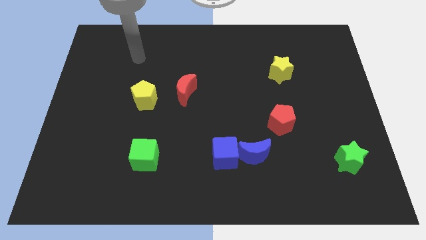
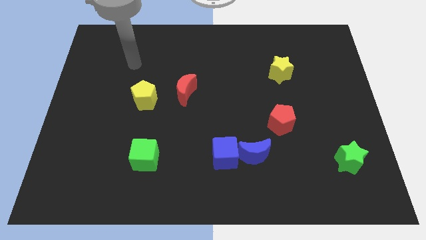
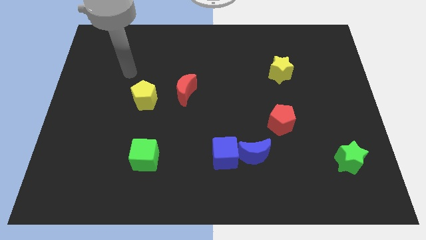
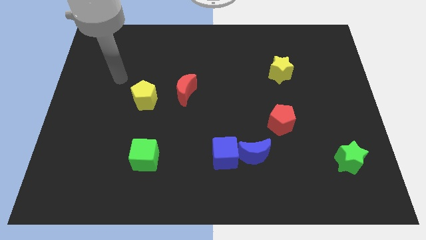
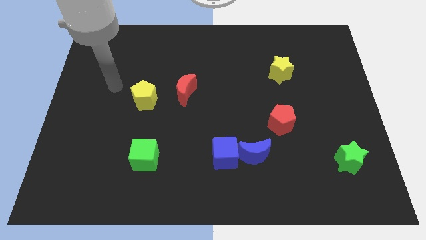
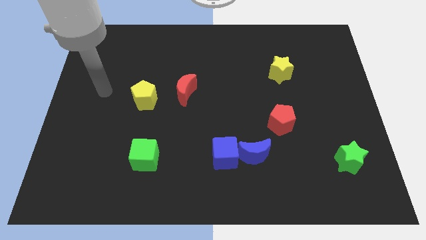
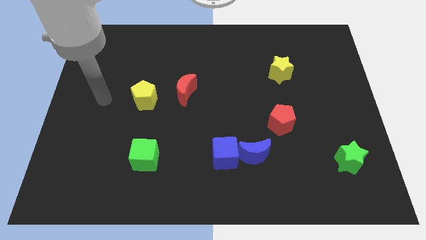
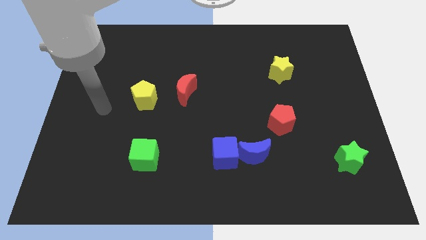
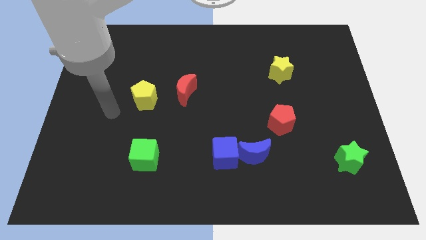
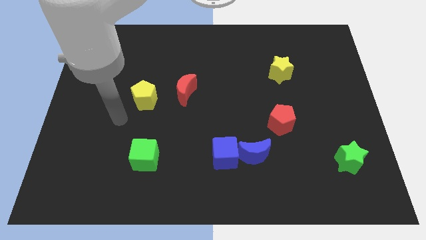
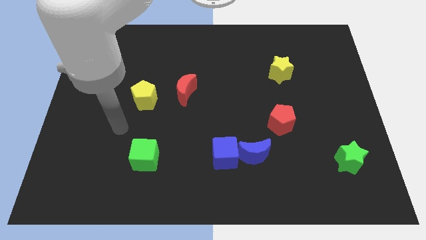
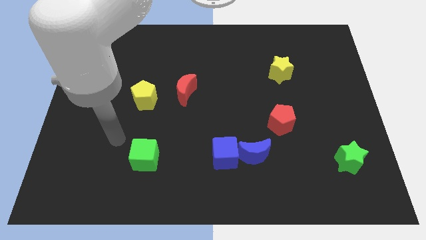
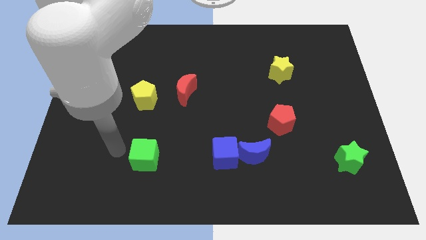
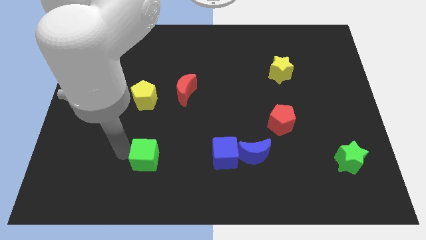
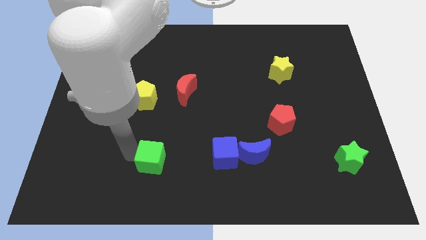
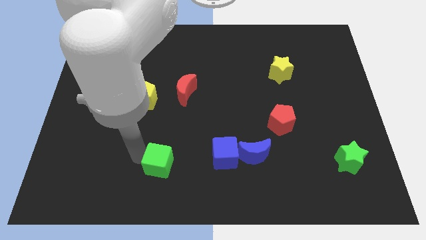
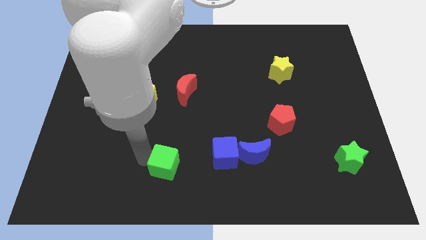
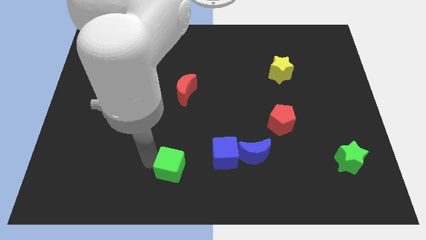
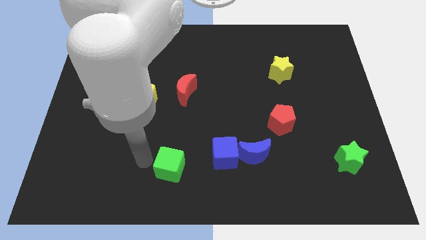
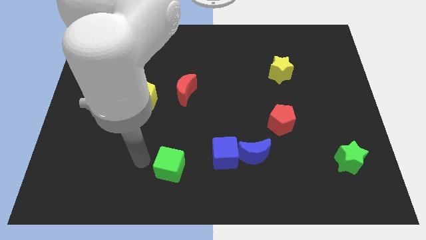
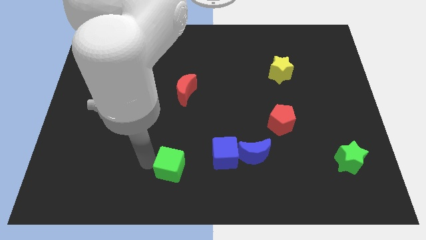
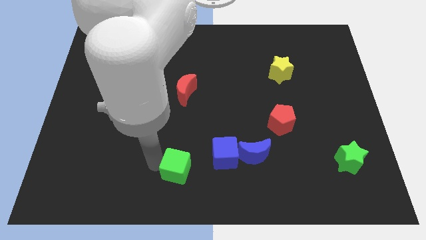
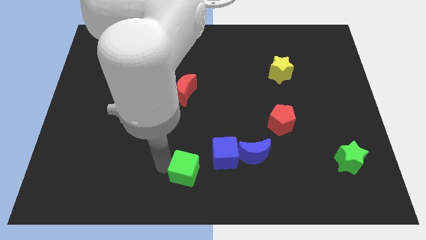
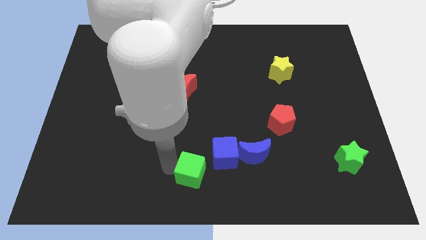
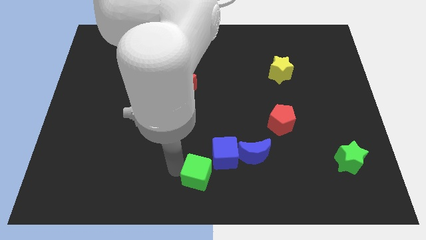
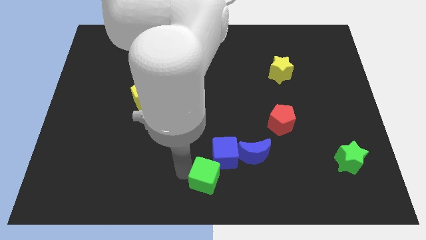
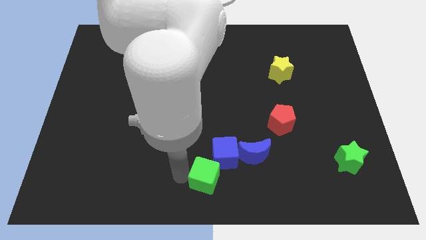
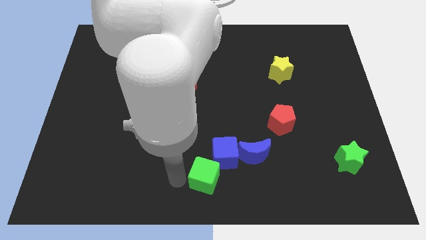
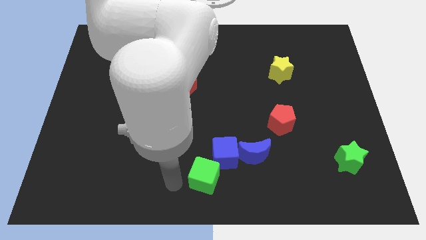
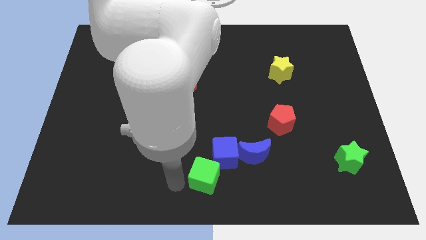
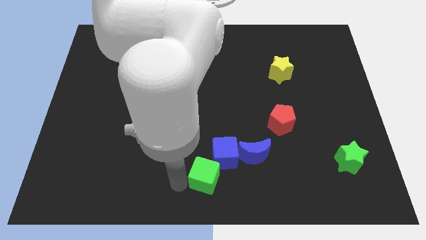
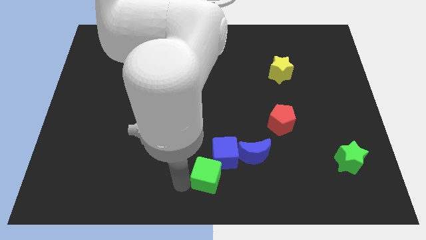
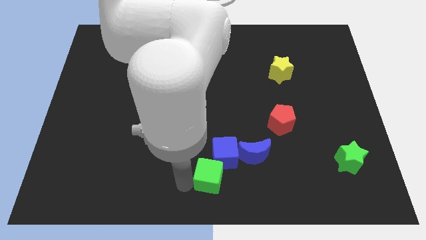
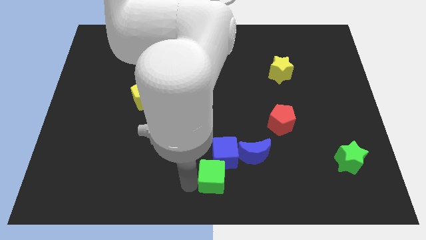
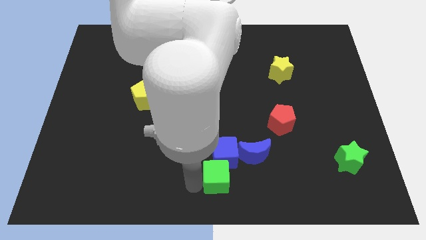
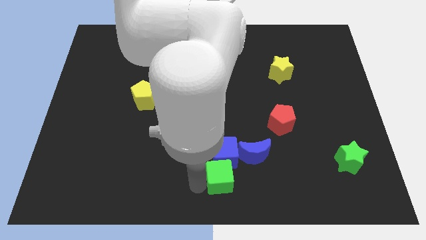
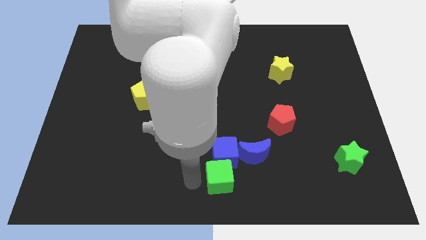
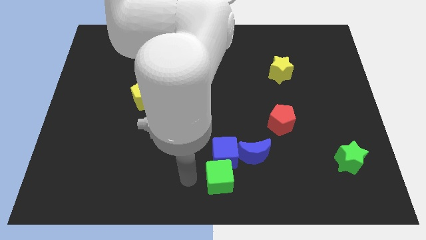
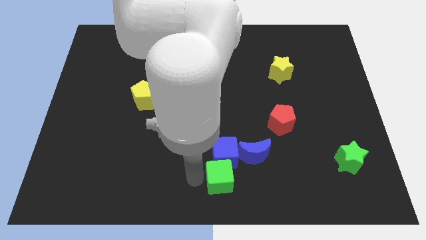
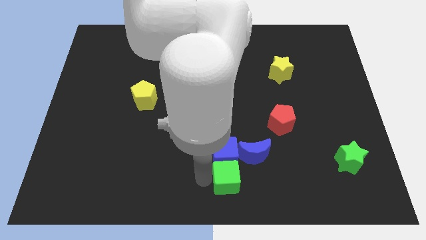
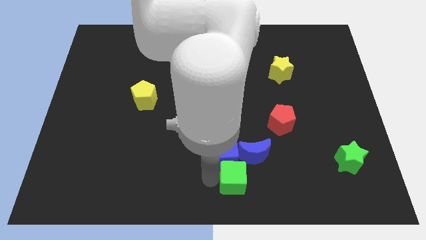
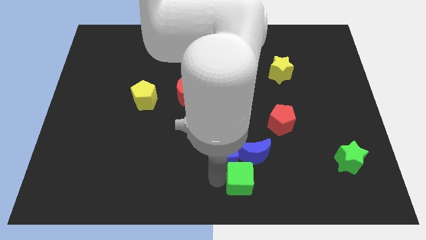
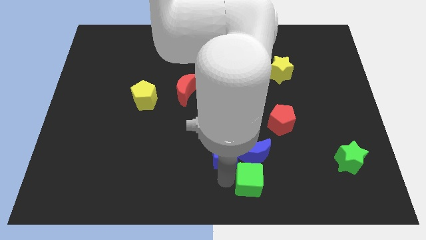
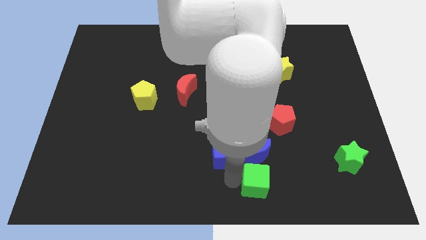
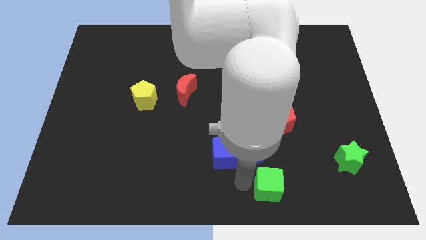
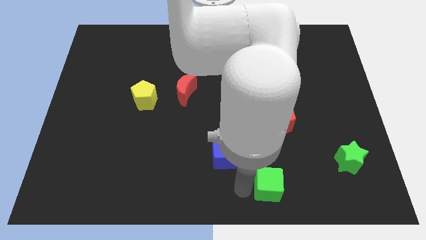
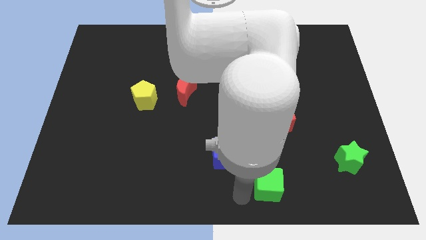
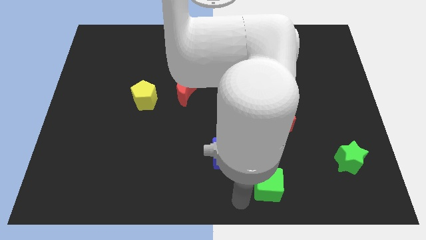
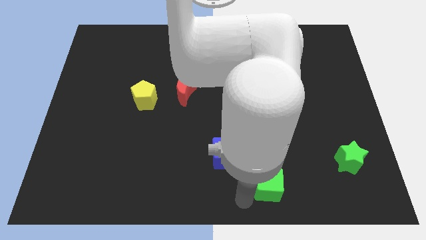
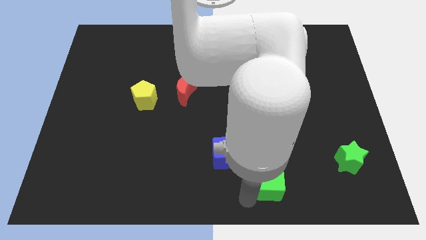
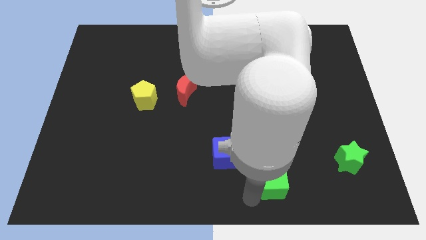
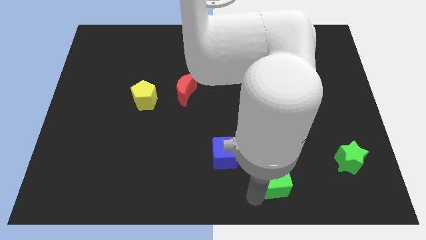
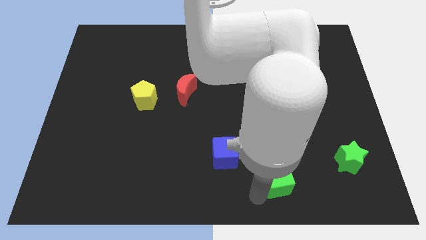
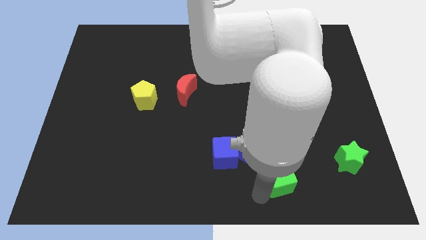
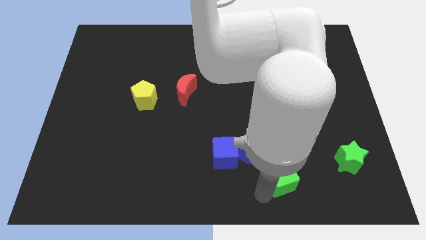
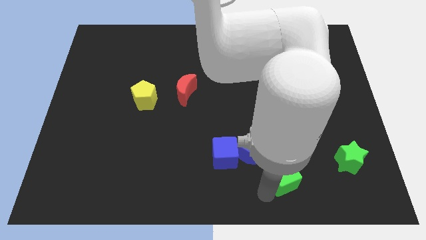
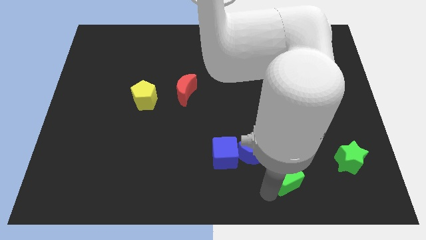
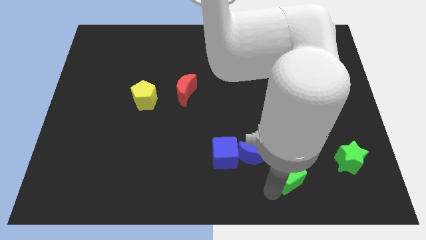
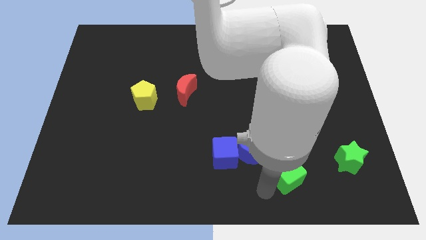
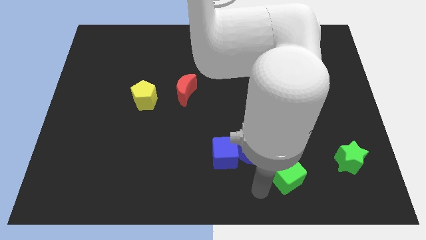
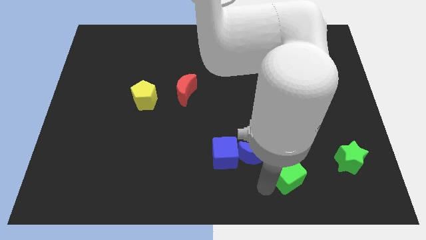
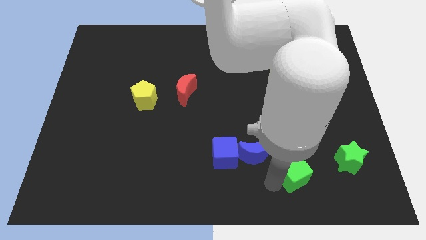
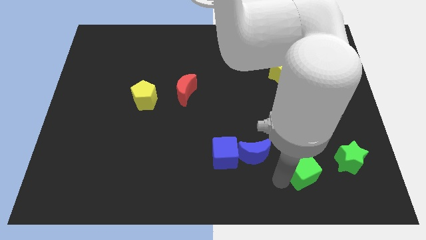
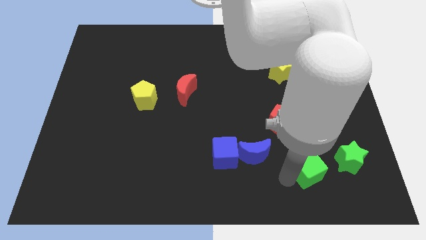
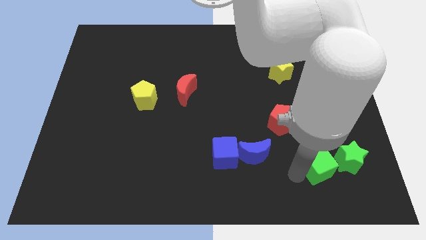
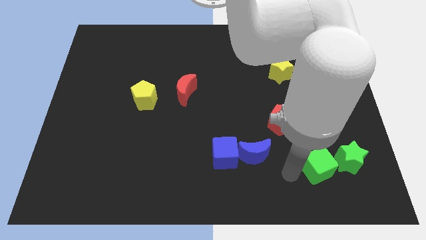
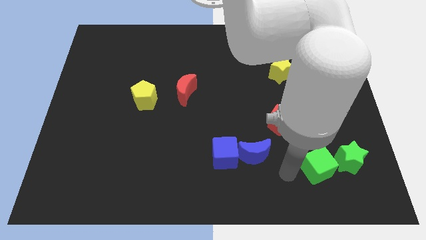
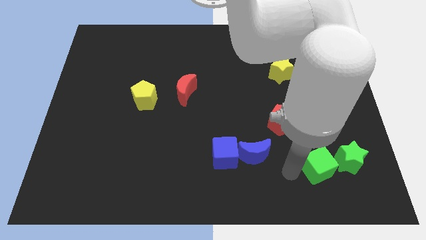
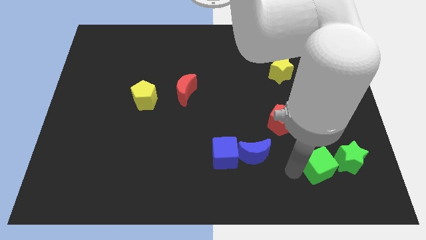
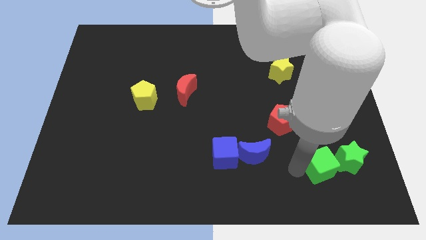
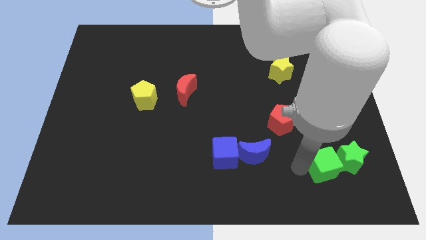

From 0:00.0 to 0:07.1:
put the green cube next to the green star
